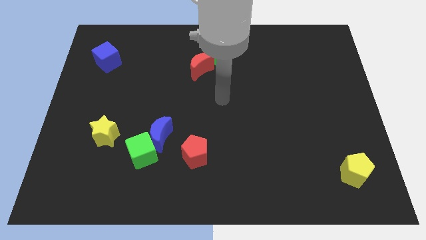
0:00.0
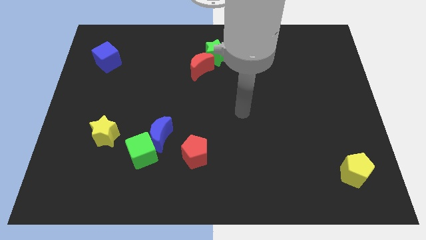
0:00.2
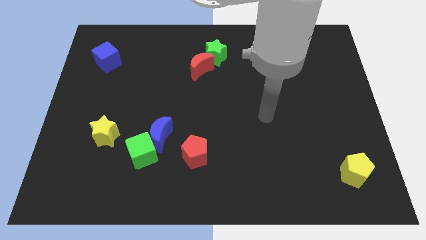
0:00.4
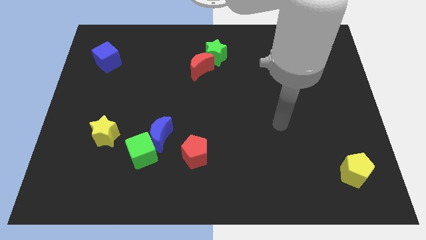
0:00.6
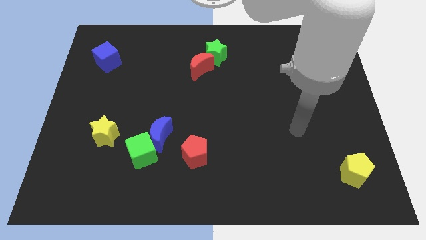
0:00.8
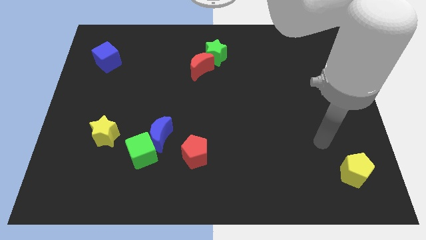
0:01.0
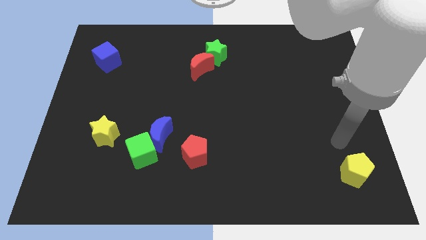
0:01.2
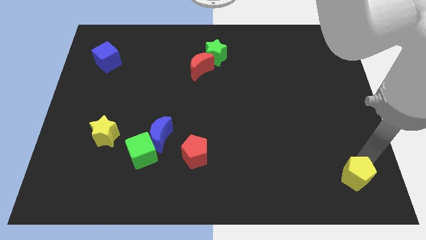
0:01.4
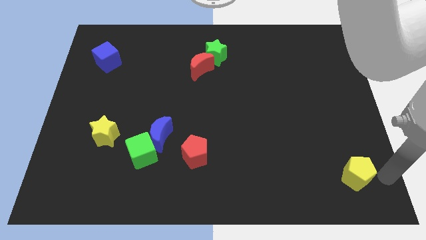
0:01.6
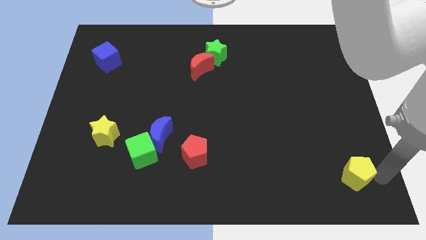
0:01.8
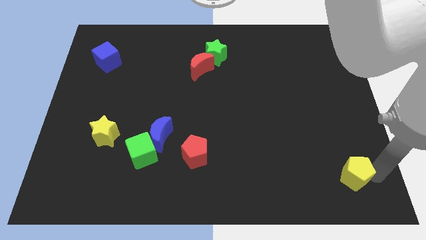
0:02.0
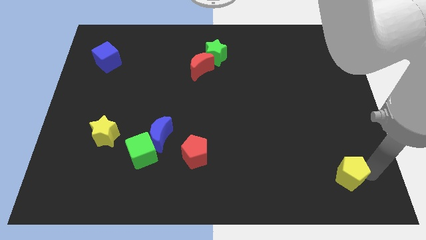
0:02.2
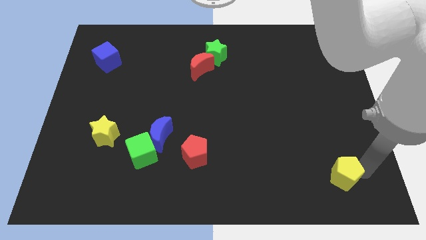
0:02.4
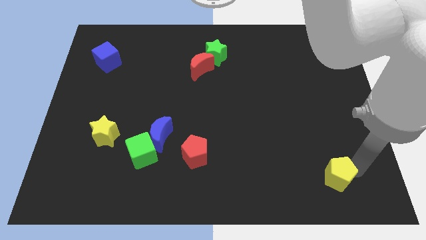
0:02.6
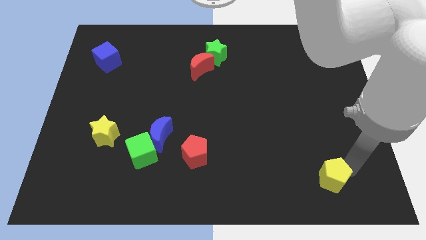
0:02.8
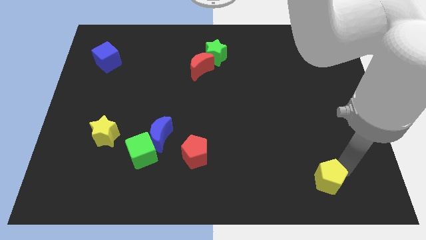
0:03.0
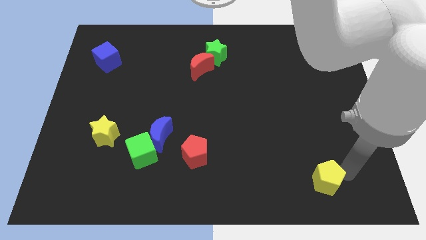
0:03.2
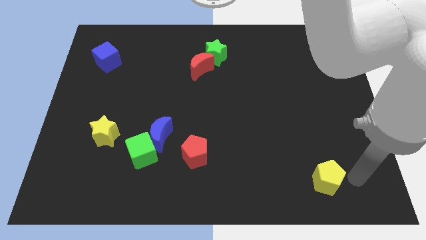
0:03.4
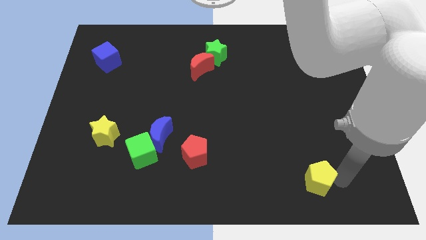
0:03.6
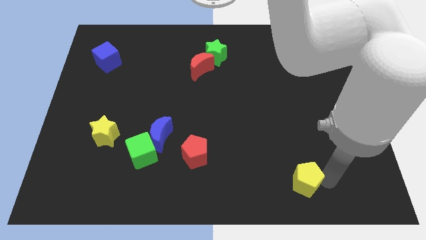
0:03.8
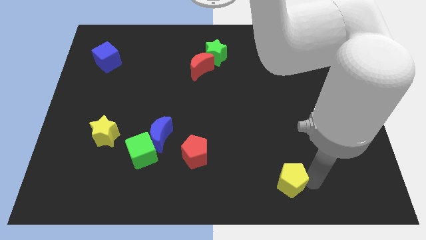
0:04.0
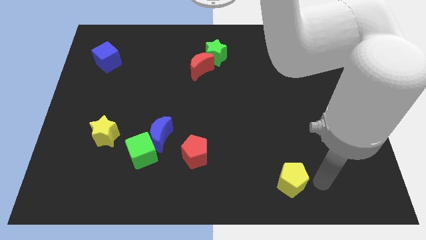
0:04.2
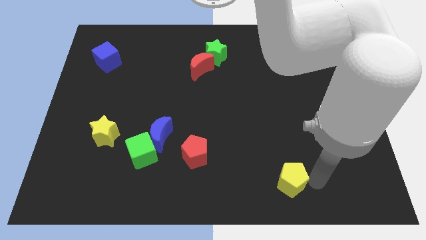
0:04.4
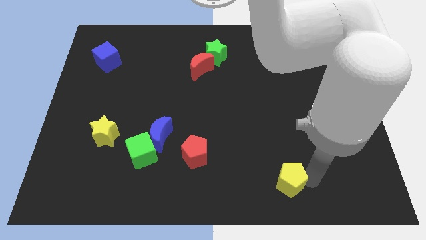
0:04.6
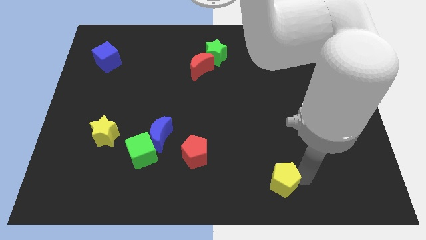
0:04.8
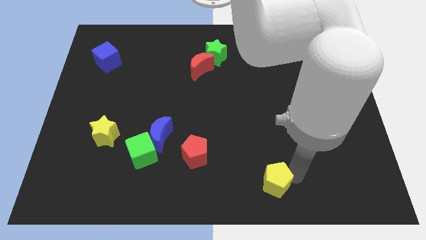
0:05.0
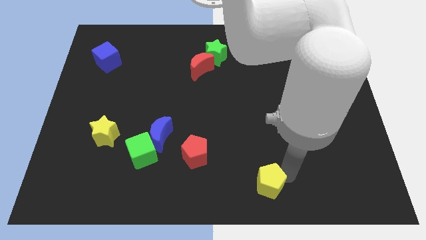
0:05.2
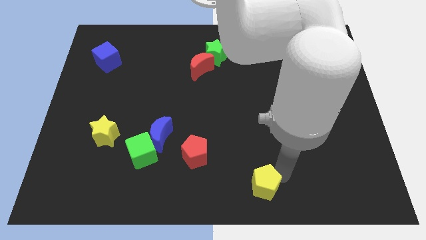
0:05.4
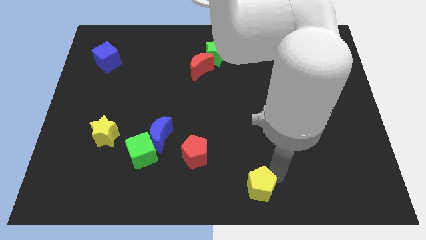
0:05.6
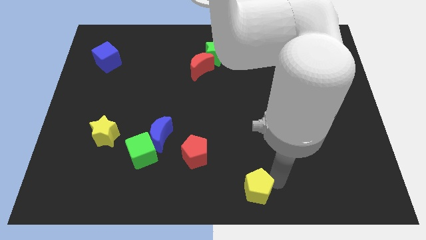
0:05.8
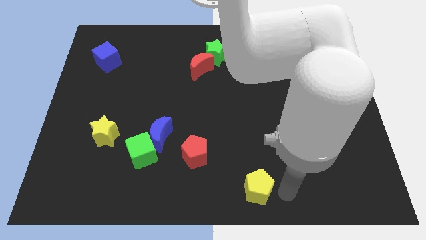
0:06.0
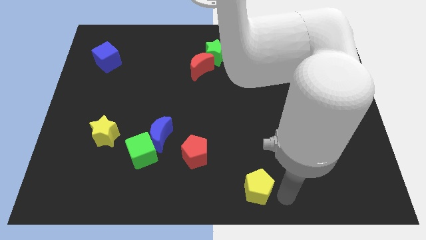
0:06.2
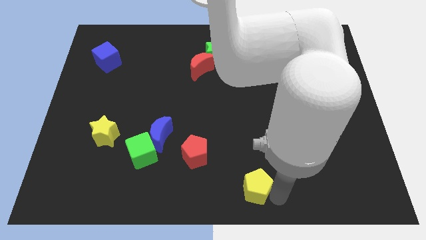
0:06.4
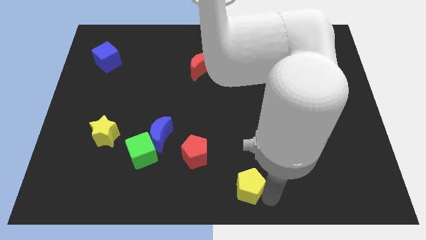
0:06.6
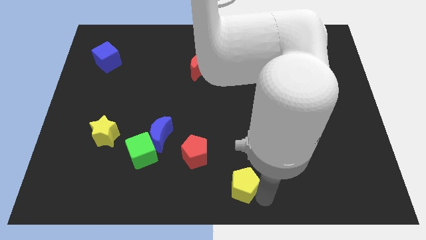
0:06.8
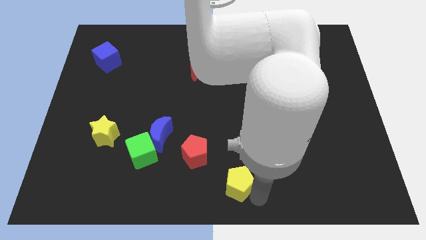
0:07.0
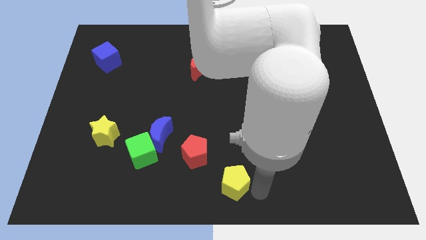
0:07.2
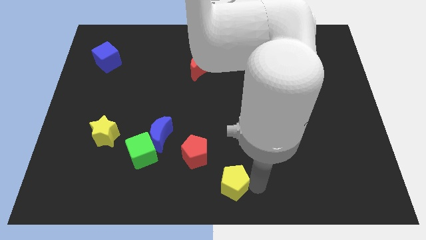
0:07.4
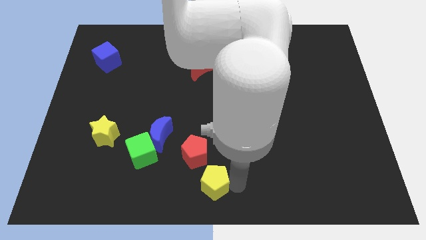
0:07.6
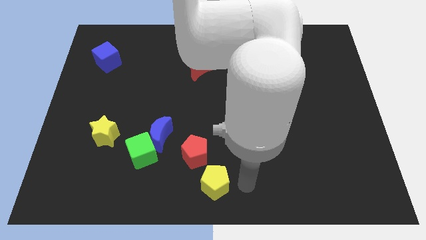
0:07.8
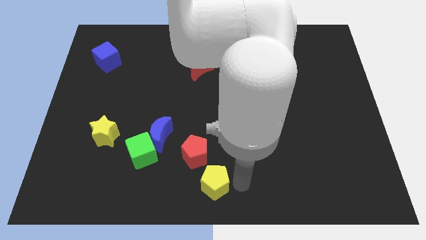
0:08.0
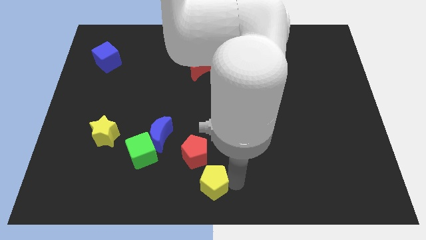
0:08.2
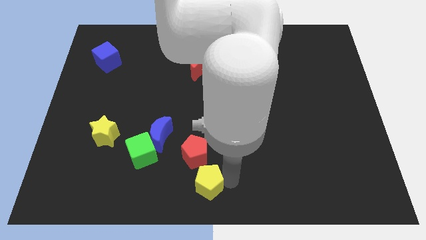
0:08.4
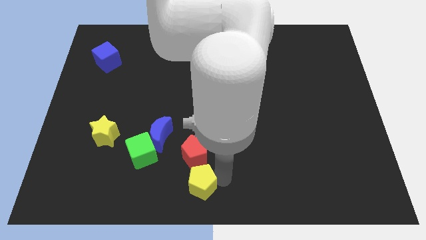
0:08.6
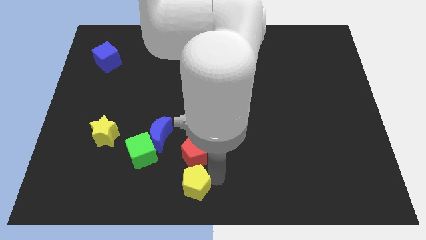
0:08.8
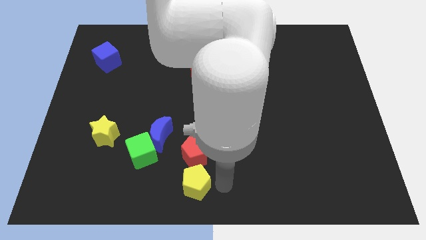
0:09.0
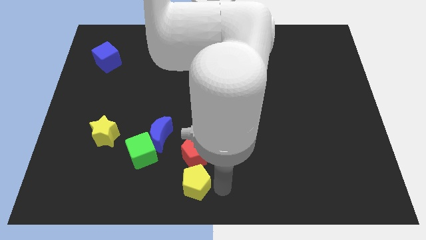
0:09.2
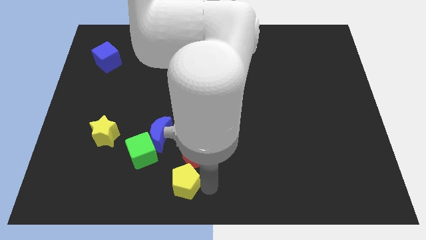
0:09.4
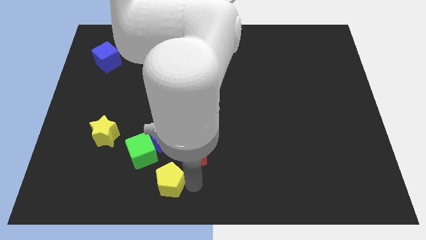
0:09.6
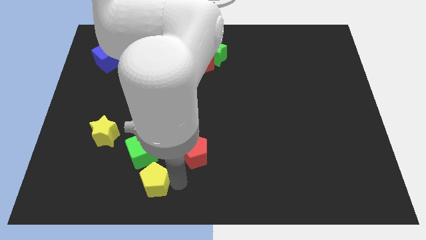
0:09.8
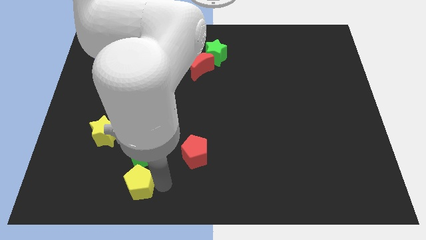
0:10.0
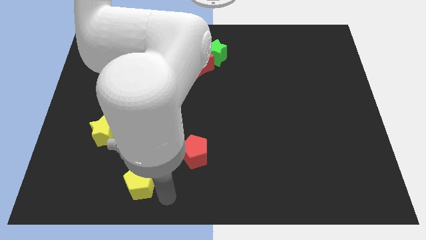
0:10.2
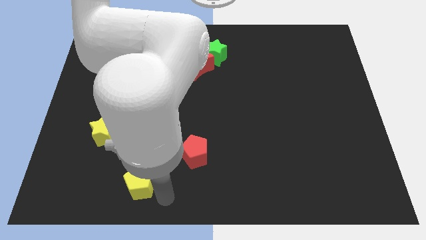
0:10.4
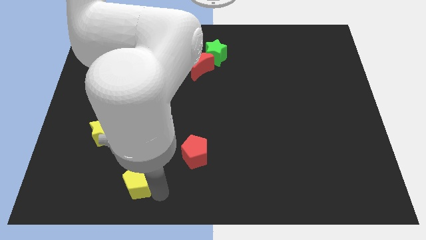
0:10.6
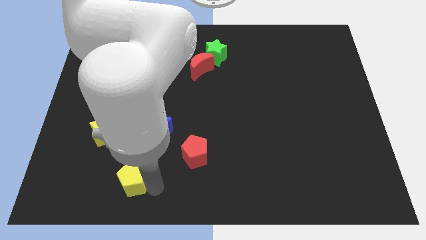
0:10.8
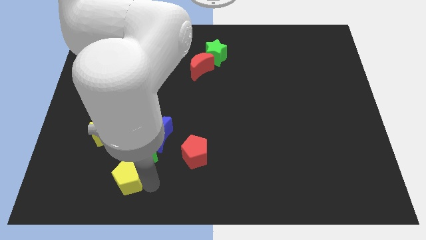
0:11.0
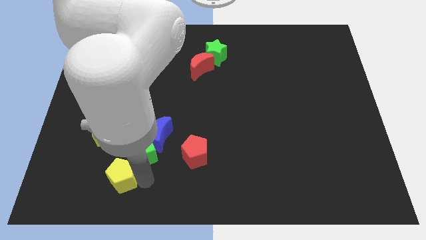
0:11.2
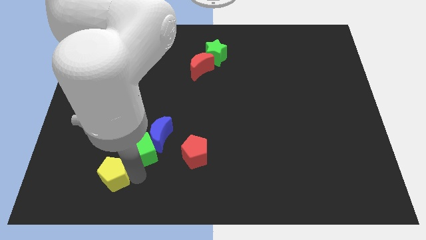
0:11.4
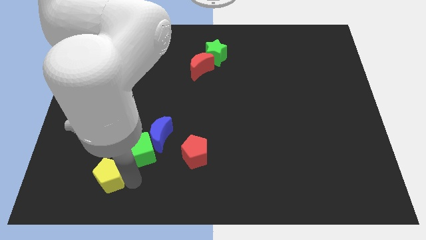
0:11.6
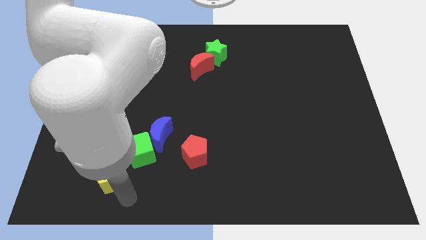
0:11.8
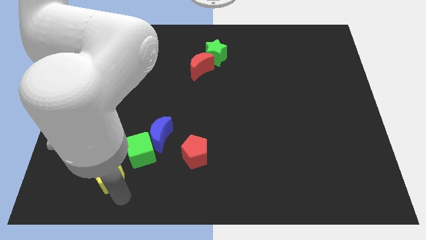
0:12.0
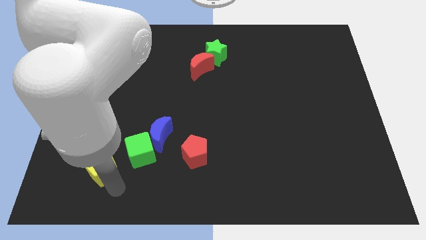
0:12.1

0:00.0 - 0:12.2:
move the yellow pentagon to the left side of the green cube

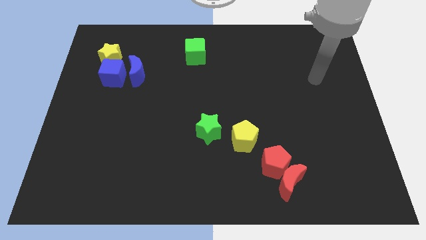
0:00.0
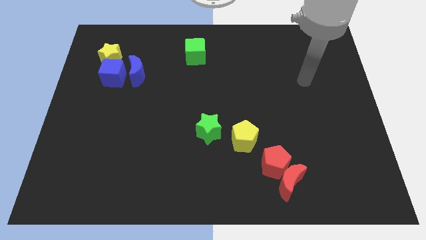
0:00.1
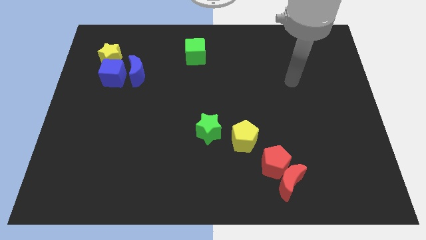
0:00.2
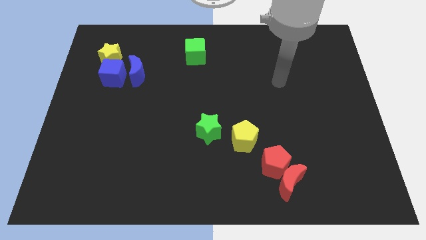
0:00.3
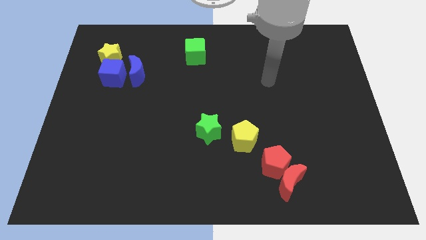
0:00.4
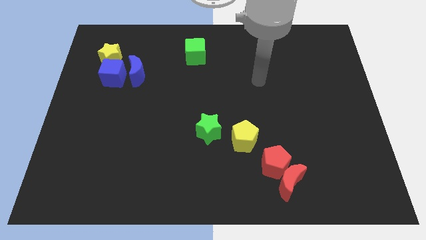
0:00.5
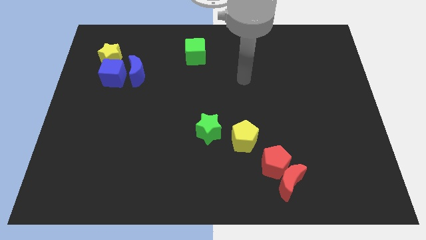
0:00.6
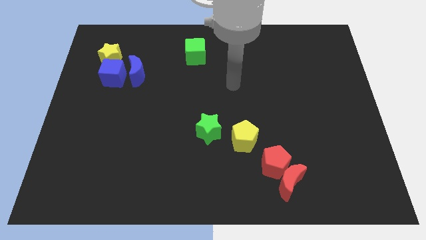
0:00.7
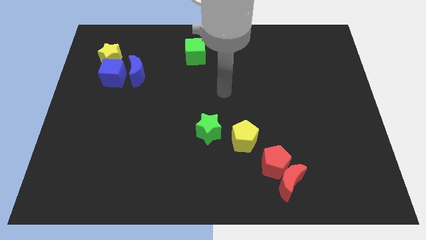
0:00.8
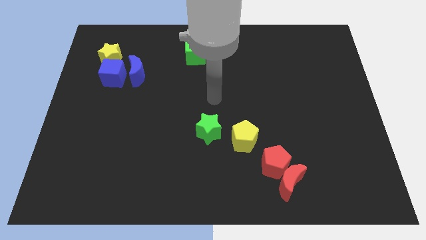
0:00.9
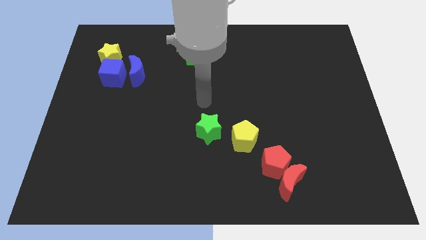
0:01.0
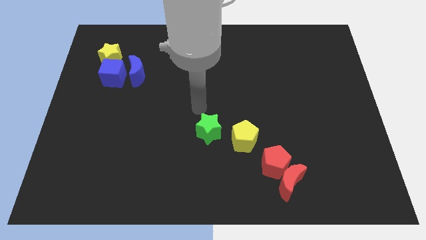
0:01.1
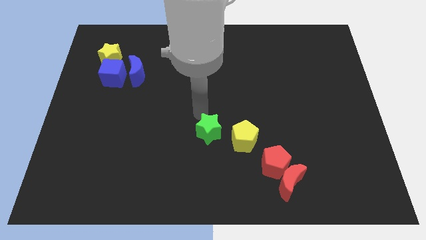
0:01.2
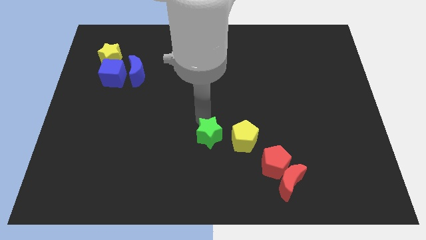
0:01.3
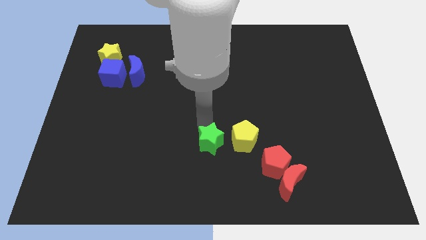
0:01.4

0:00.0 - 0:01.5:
move the green star to the bottom left of the yellow pentagon
